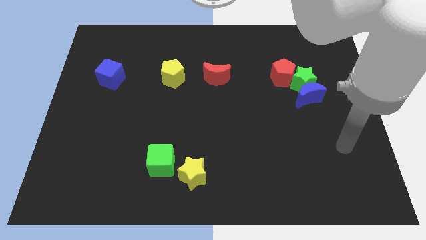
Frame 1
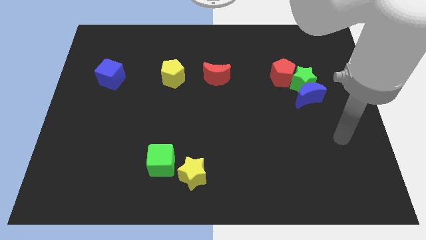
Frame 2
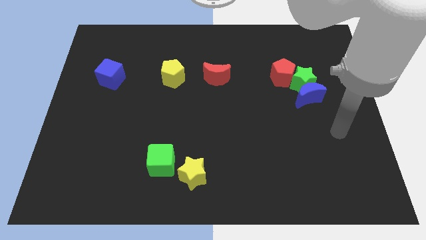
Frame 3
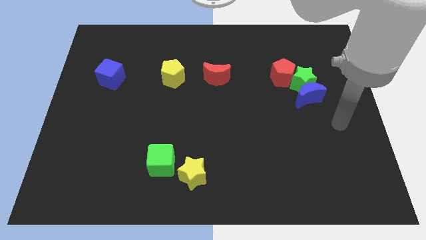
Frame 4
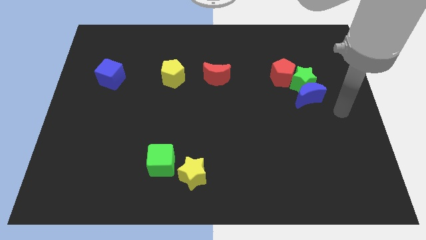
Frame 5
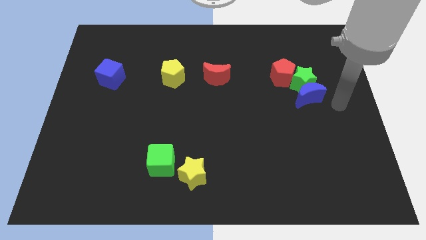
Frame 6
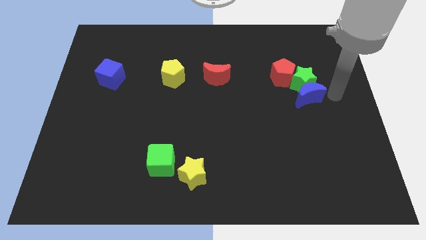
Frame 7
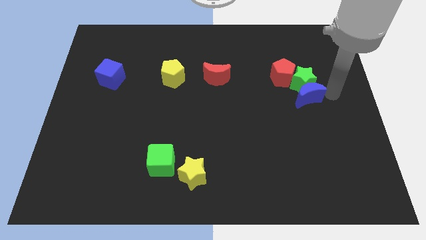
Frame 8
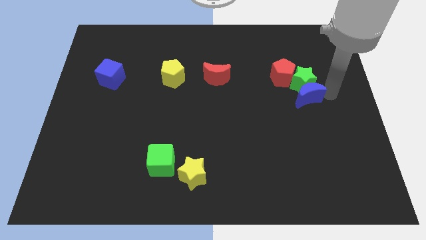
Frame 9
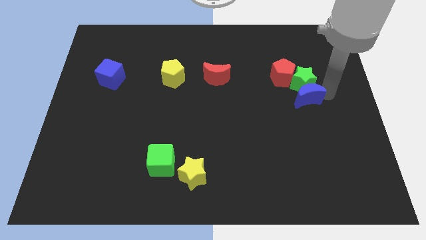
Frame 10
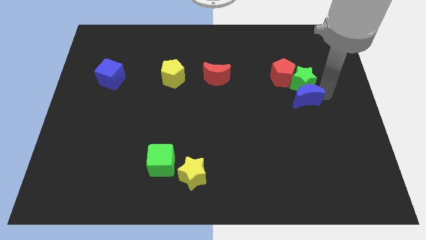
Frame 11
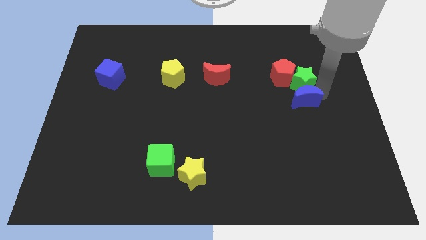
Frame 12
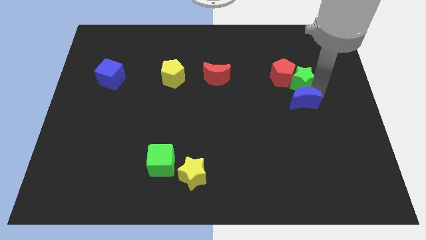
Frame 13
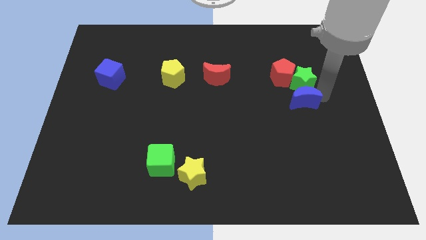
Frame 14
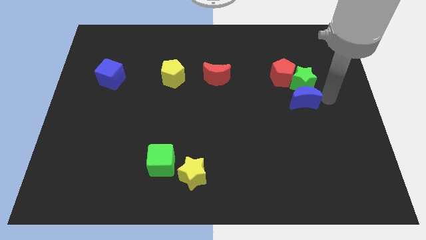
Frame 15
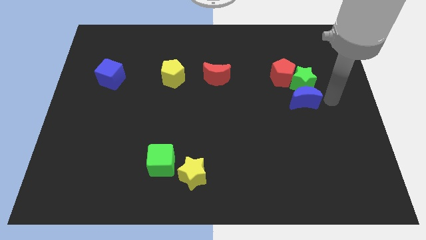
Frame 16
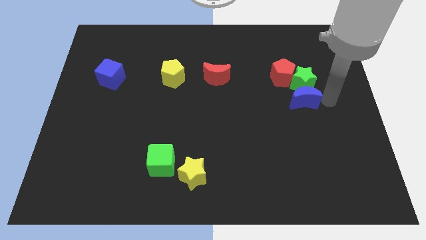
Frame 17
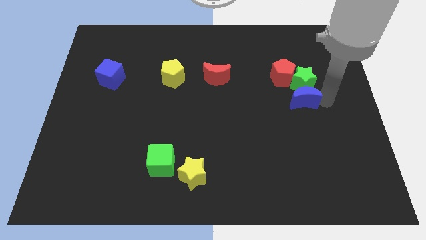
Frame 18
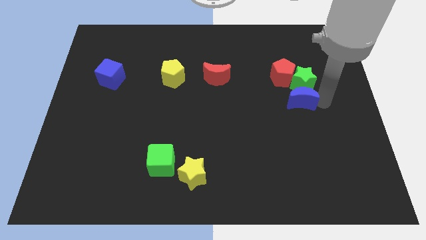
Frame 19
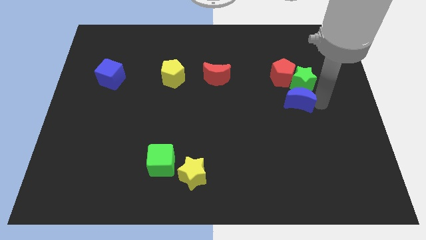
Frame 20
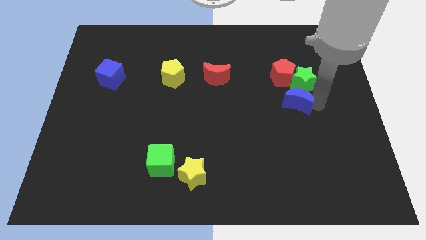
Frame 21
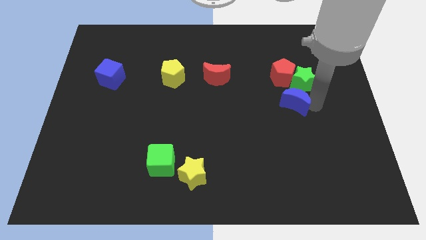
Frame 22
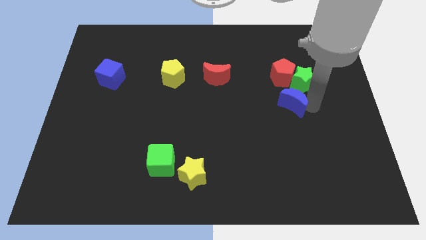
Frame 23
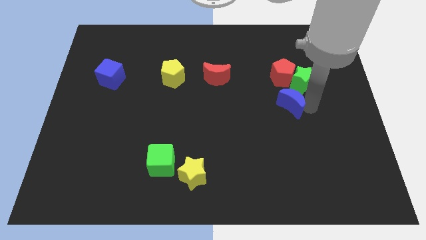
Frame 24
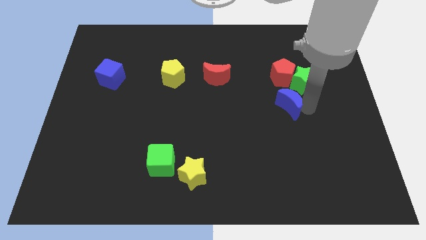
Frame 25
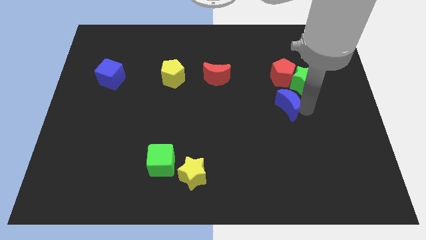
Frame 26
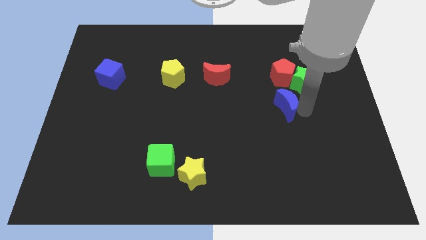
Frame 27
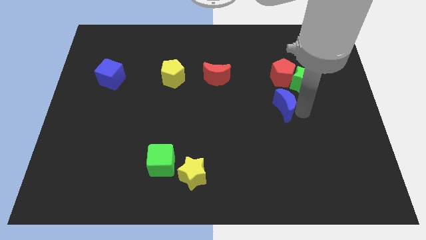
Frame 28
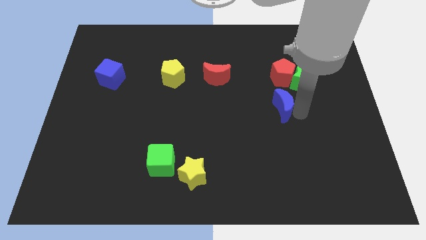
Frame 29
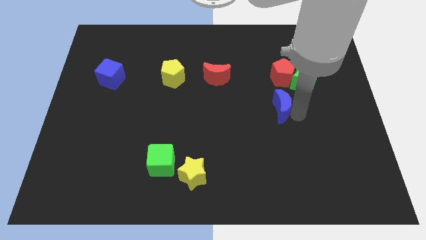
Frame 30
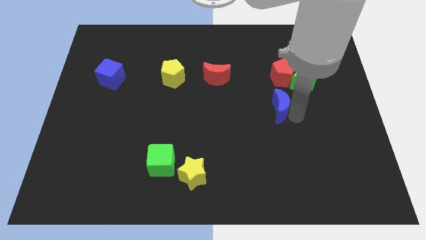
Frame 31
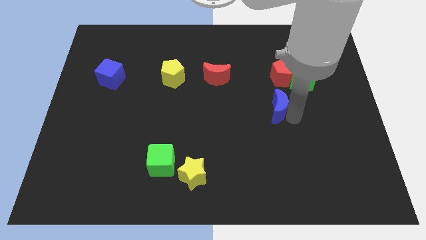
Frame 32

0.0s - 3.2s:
push the blue moon somewhat to the left

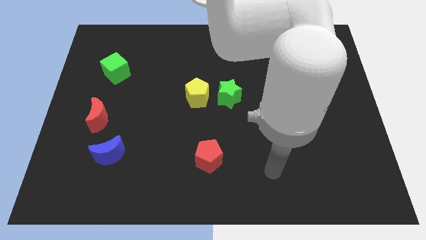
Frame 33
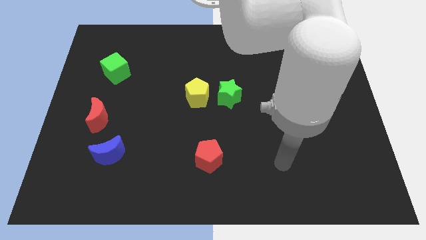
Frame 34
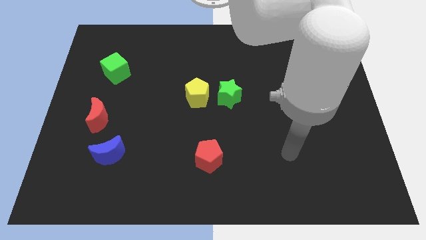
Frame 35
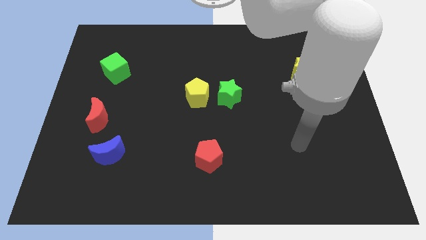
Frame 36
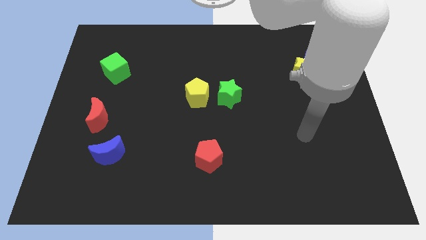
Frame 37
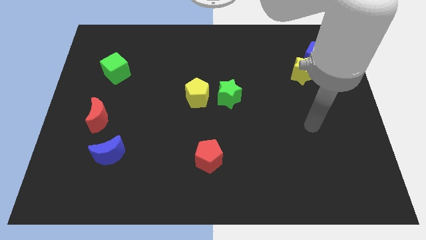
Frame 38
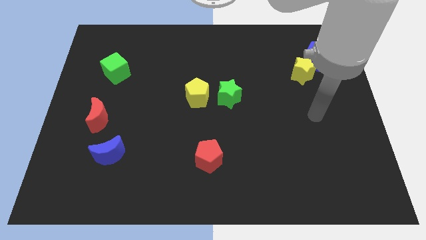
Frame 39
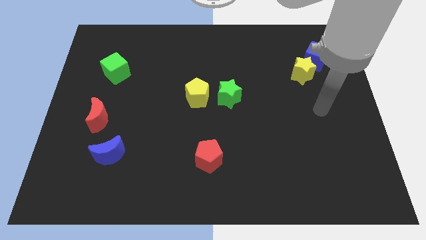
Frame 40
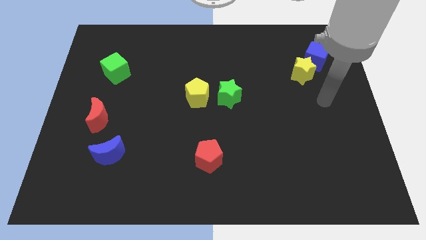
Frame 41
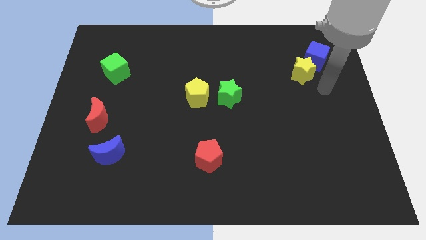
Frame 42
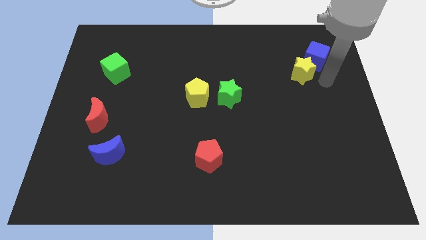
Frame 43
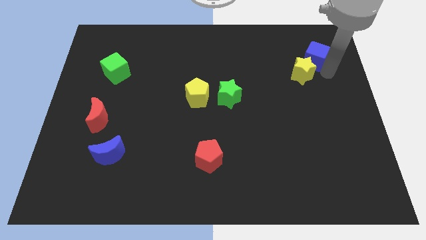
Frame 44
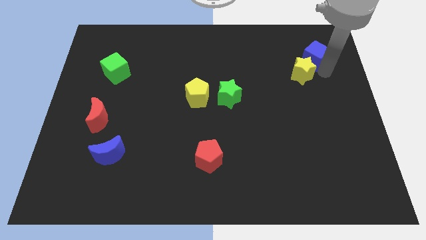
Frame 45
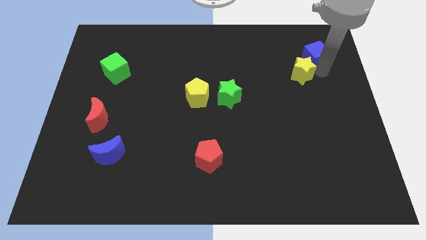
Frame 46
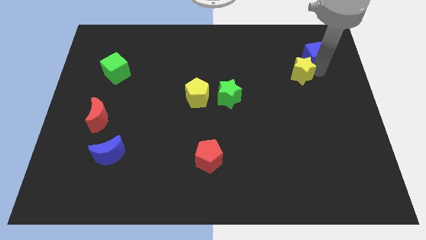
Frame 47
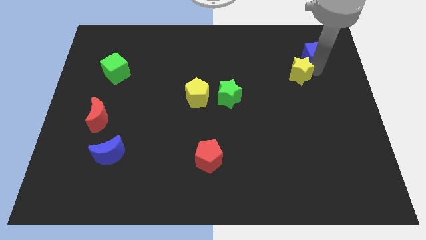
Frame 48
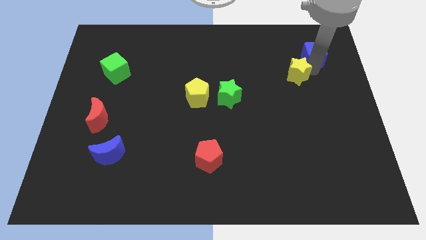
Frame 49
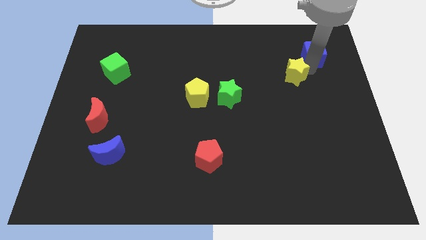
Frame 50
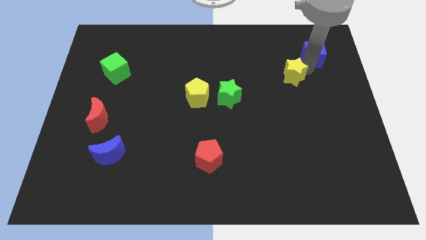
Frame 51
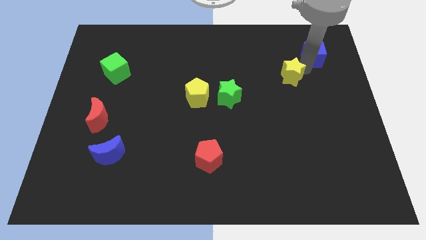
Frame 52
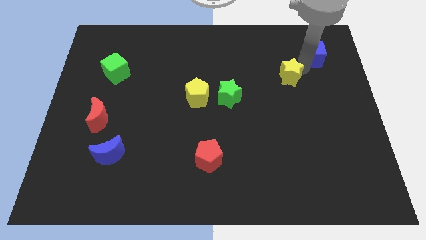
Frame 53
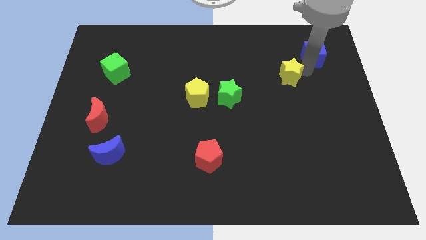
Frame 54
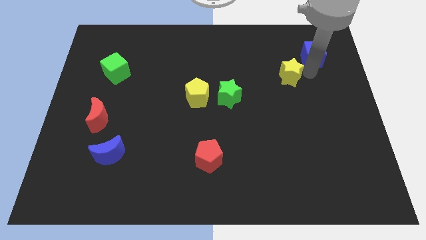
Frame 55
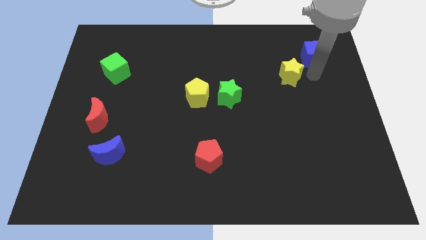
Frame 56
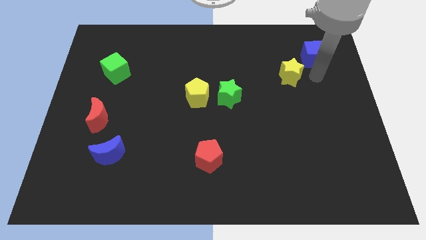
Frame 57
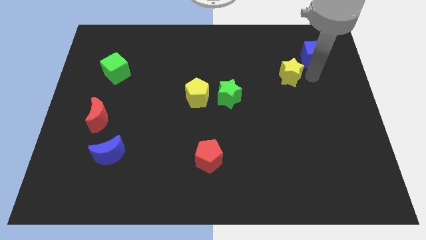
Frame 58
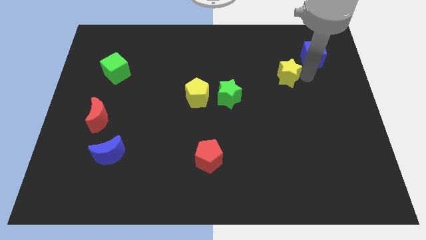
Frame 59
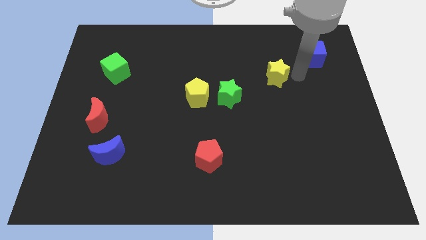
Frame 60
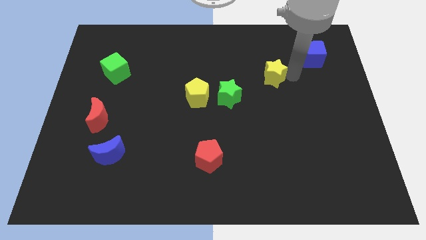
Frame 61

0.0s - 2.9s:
move the yellow star left a little bit

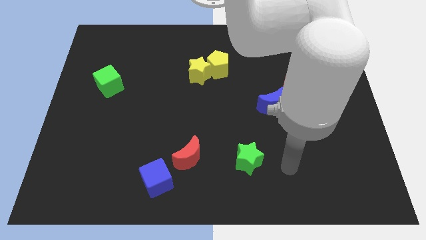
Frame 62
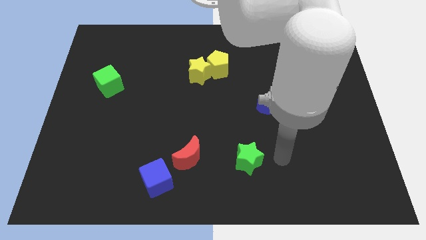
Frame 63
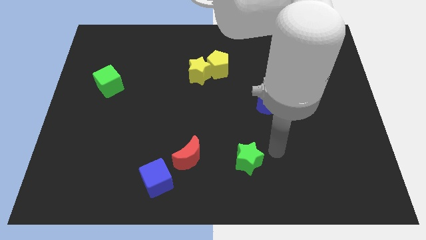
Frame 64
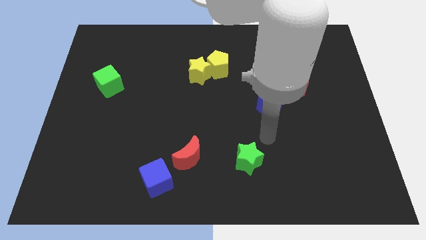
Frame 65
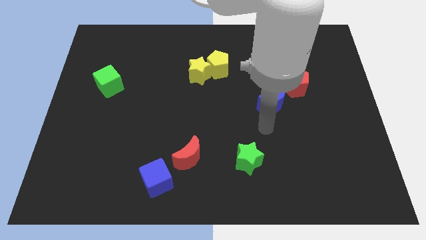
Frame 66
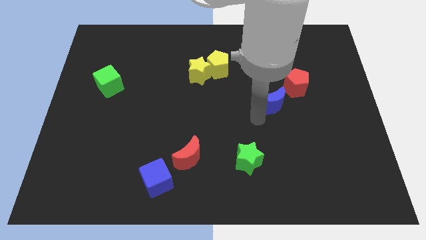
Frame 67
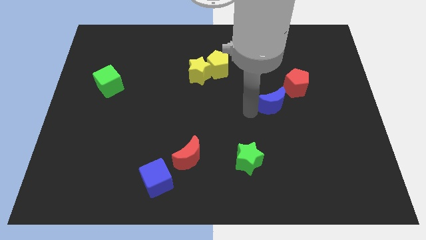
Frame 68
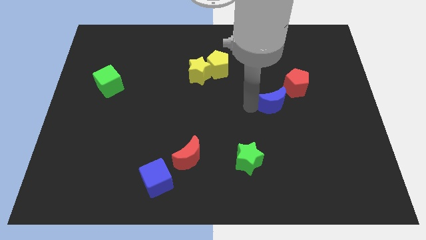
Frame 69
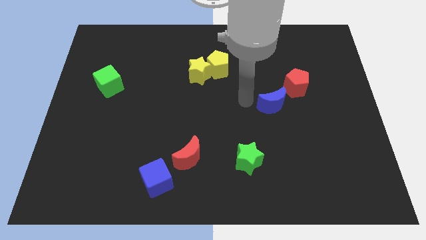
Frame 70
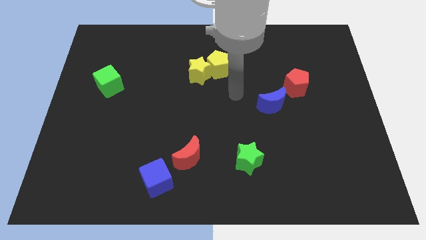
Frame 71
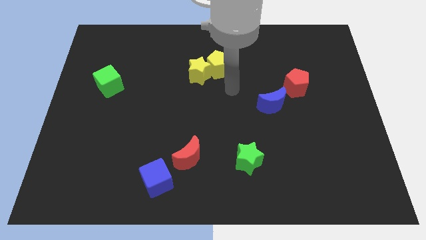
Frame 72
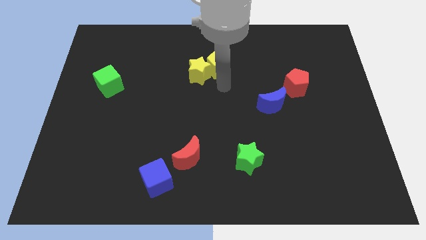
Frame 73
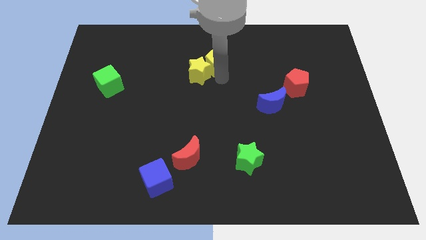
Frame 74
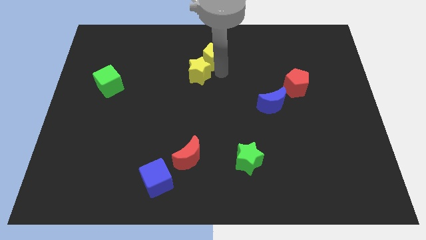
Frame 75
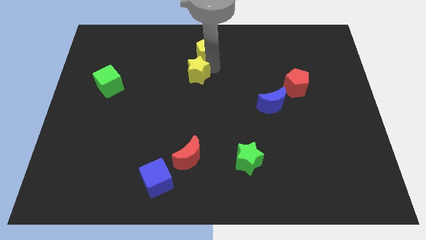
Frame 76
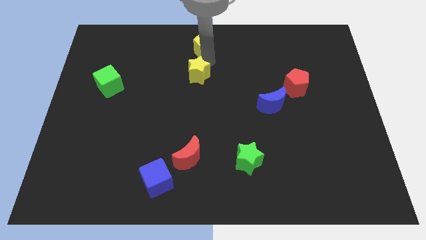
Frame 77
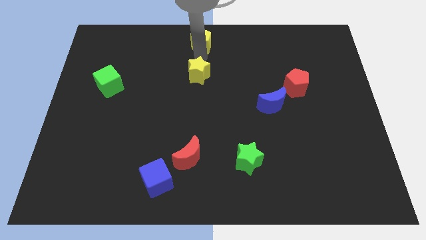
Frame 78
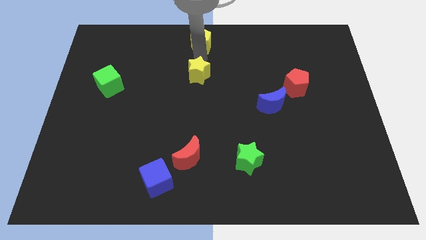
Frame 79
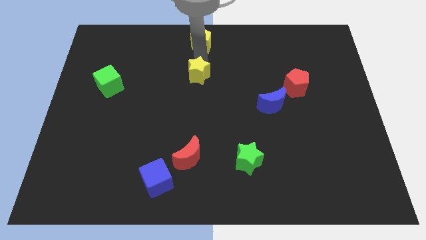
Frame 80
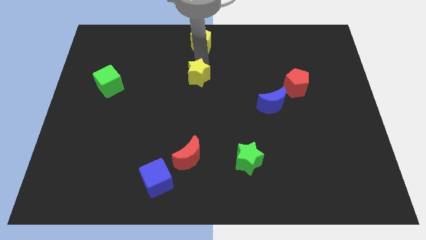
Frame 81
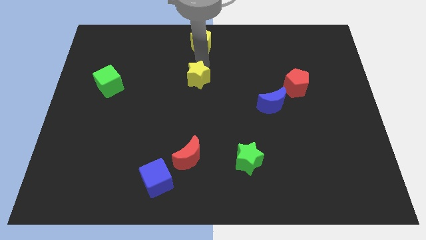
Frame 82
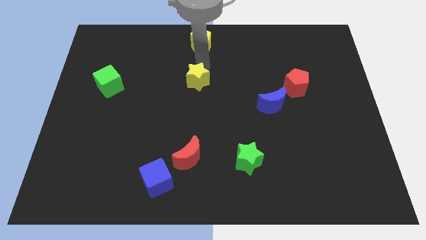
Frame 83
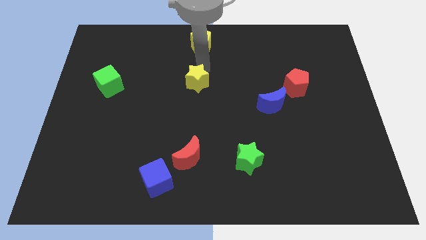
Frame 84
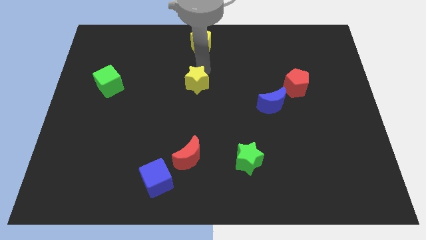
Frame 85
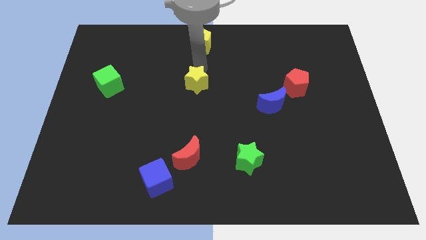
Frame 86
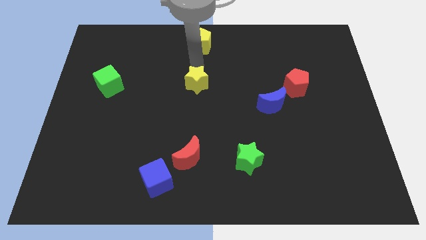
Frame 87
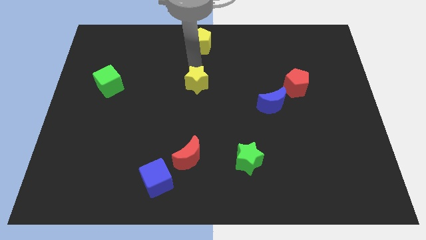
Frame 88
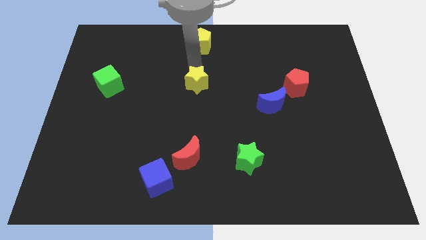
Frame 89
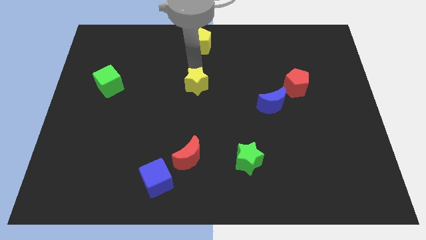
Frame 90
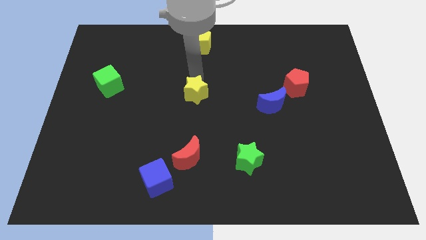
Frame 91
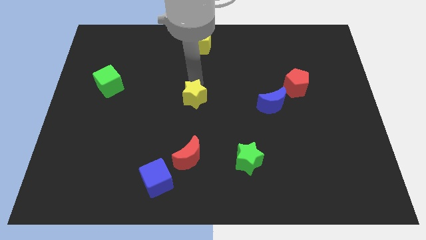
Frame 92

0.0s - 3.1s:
slide the yellow star down a little bit
